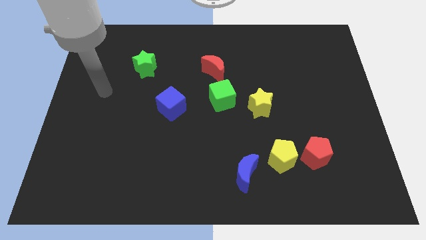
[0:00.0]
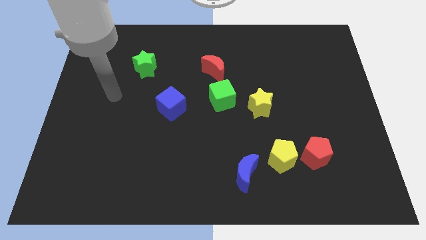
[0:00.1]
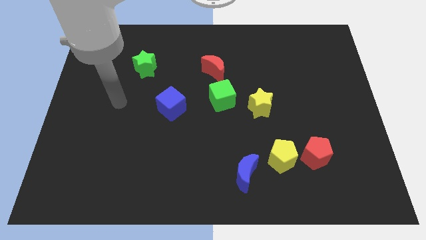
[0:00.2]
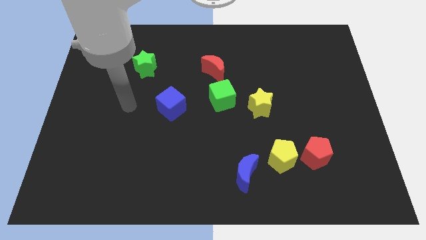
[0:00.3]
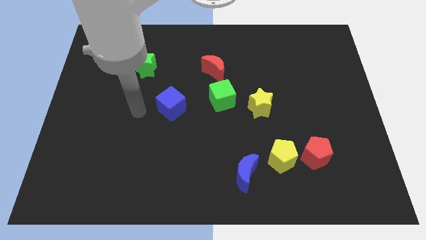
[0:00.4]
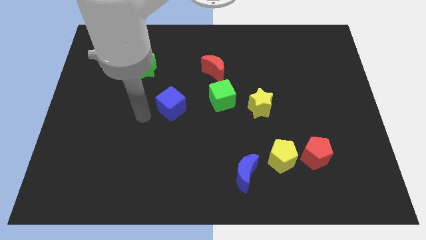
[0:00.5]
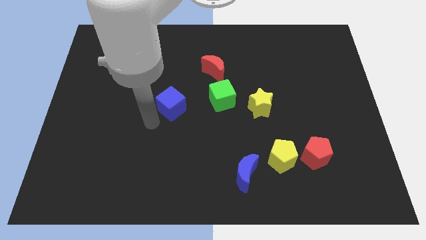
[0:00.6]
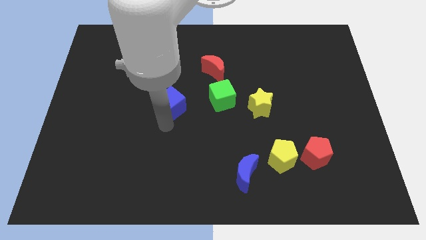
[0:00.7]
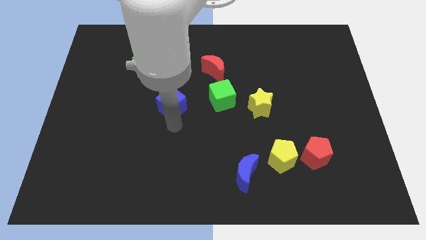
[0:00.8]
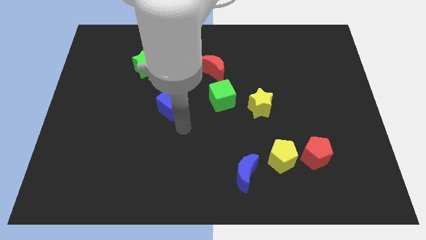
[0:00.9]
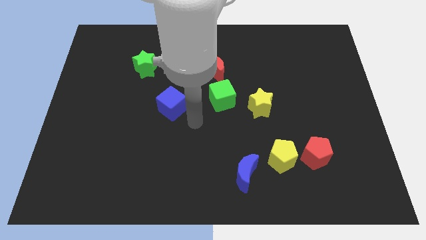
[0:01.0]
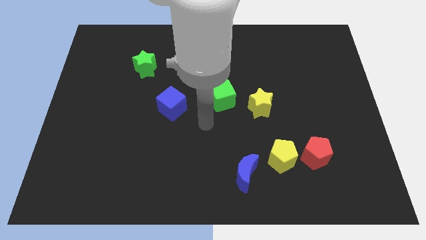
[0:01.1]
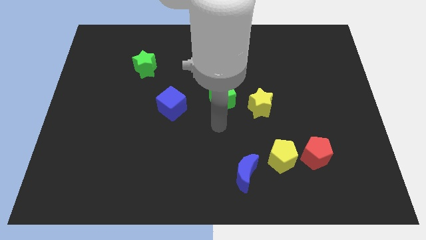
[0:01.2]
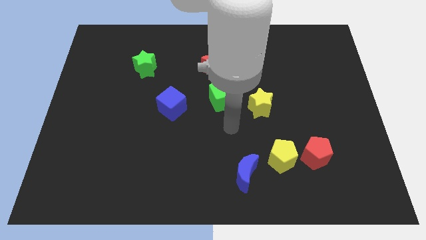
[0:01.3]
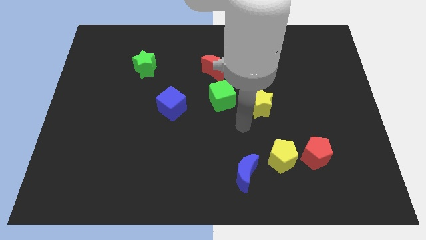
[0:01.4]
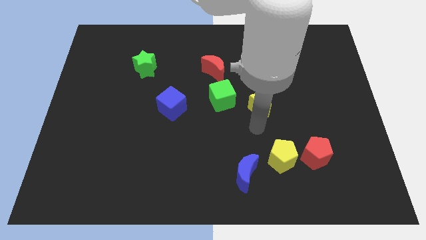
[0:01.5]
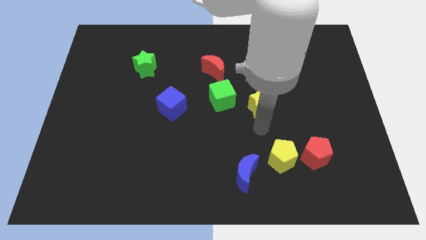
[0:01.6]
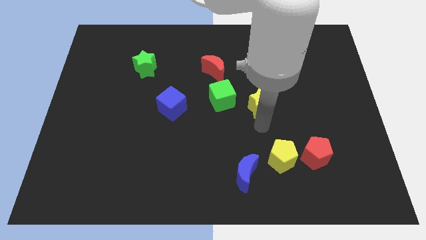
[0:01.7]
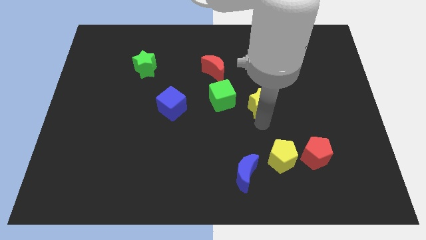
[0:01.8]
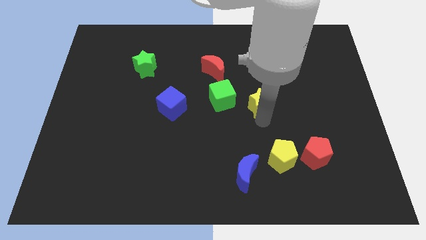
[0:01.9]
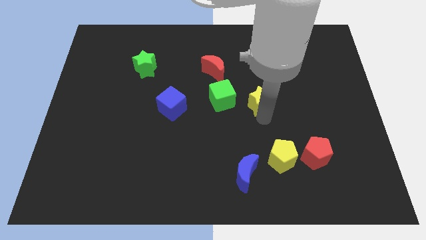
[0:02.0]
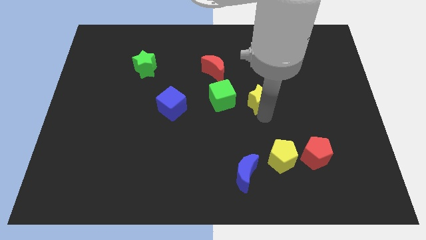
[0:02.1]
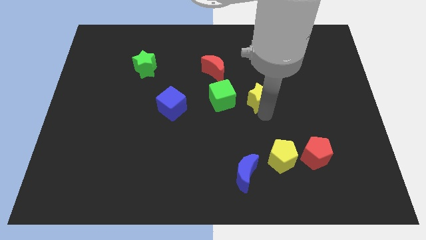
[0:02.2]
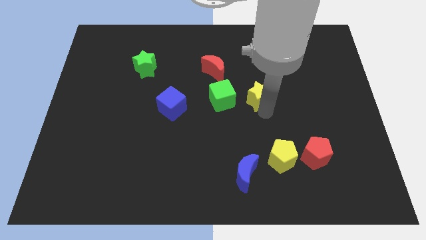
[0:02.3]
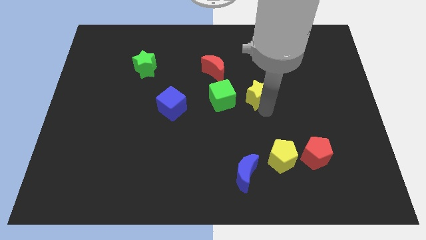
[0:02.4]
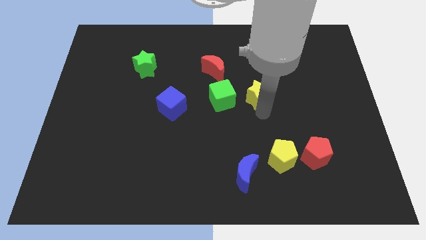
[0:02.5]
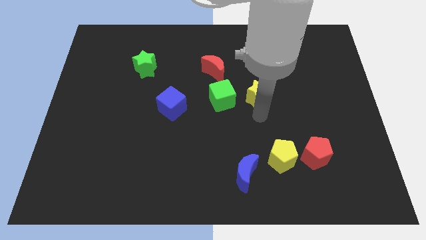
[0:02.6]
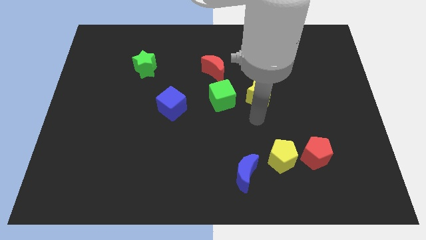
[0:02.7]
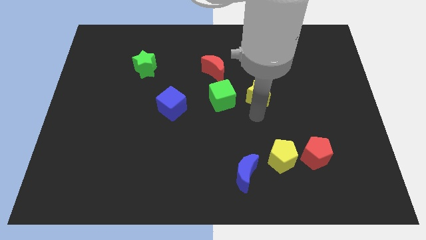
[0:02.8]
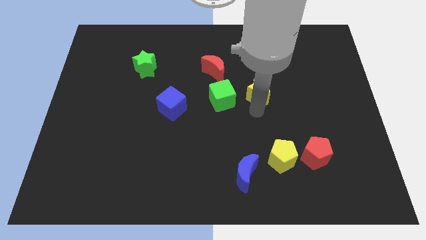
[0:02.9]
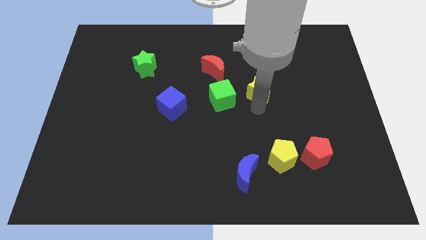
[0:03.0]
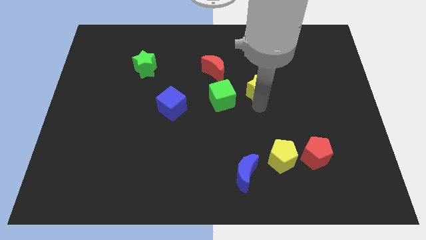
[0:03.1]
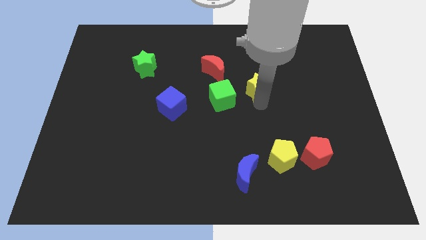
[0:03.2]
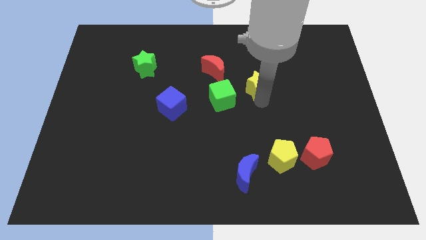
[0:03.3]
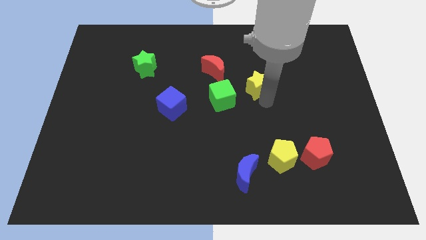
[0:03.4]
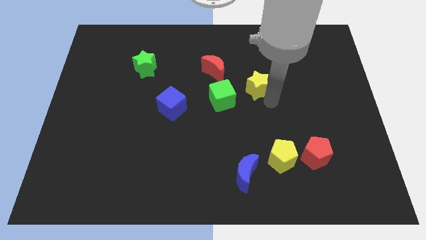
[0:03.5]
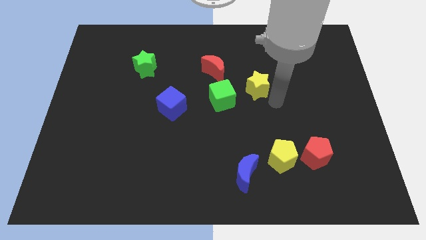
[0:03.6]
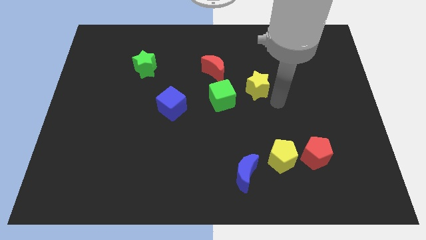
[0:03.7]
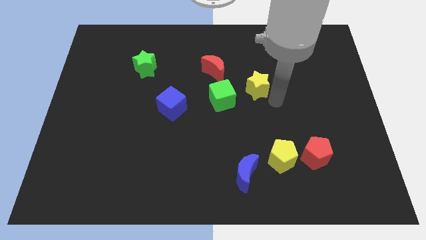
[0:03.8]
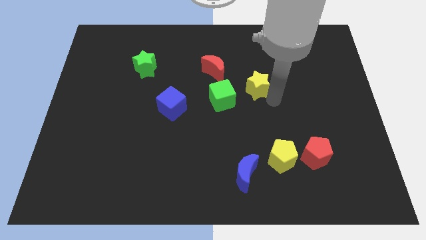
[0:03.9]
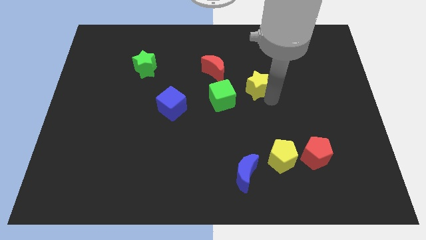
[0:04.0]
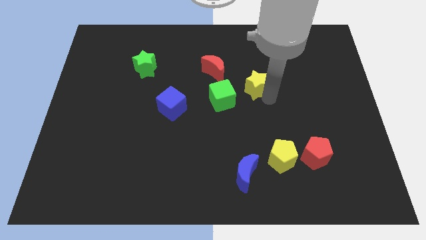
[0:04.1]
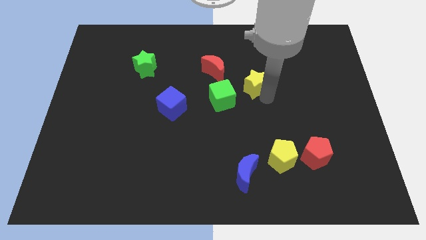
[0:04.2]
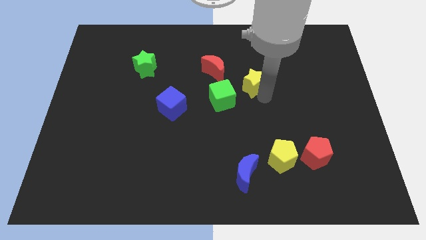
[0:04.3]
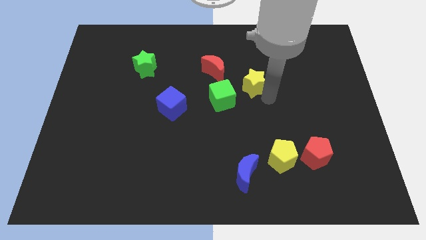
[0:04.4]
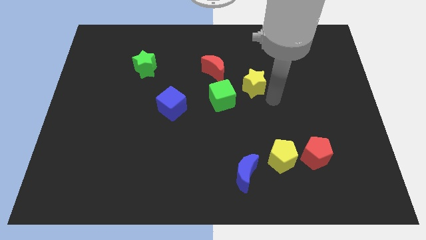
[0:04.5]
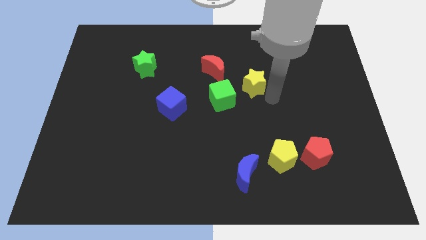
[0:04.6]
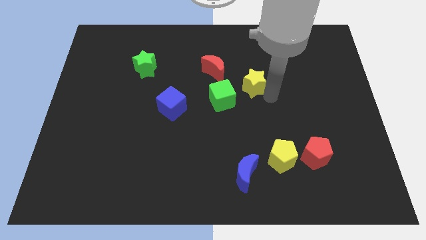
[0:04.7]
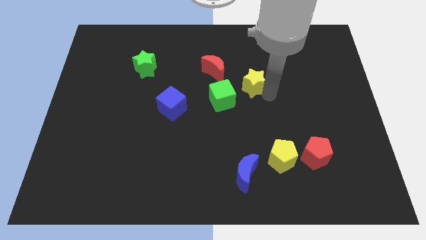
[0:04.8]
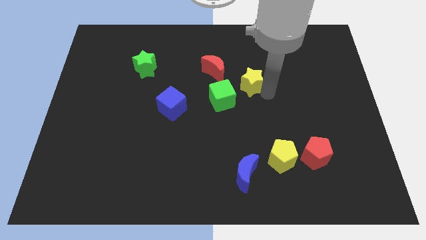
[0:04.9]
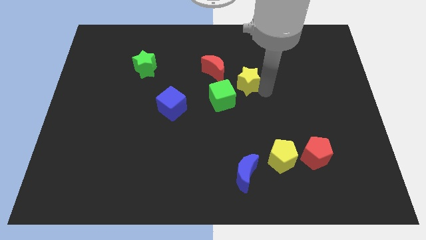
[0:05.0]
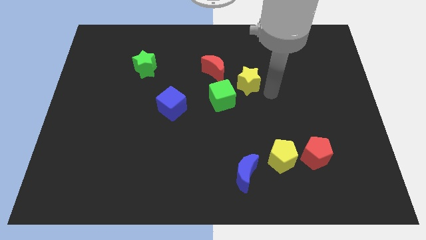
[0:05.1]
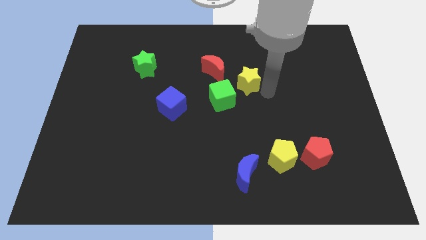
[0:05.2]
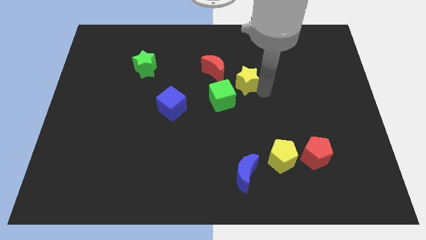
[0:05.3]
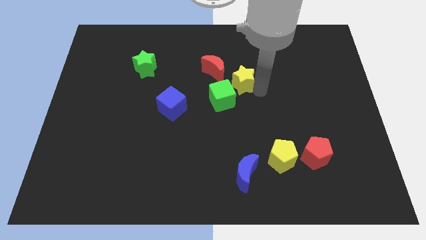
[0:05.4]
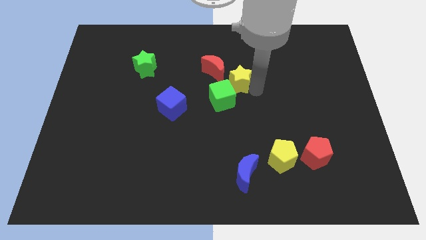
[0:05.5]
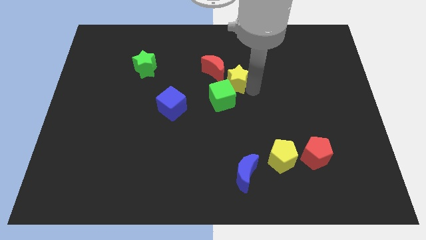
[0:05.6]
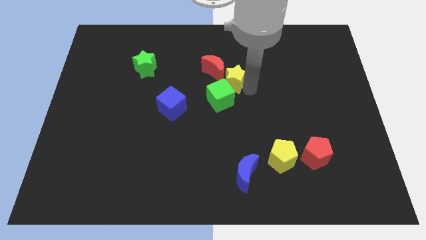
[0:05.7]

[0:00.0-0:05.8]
slide the yellow star to the red moon

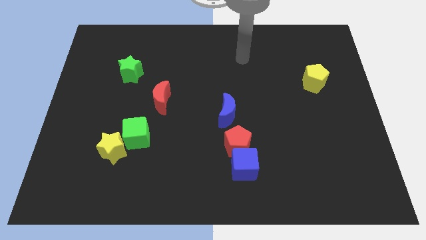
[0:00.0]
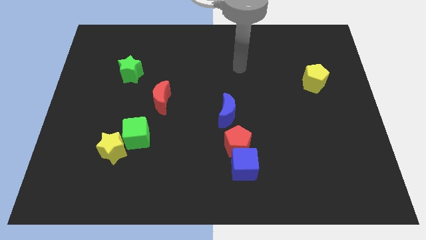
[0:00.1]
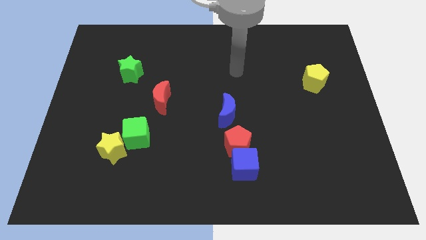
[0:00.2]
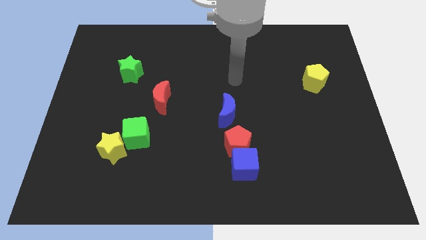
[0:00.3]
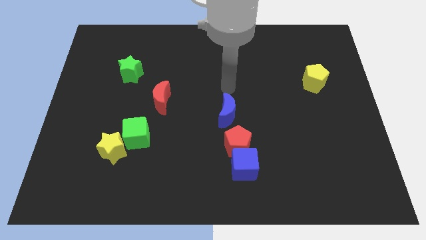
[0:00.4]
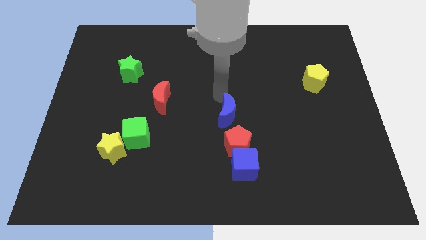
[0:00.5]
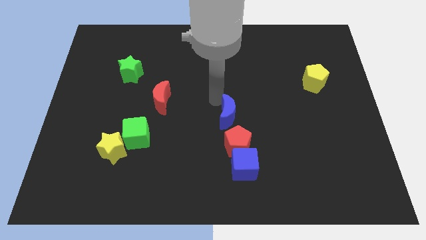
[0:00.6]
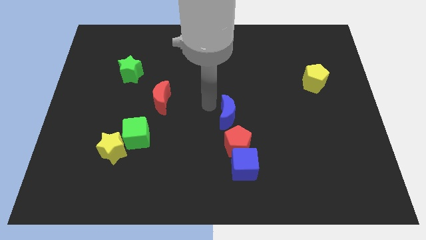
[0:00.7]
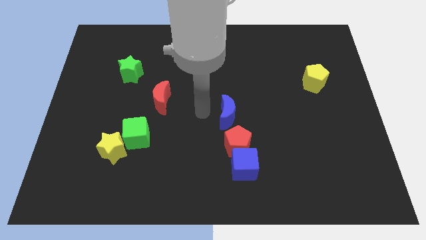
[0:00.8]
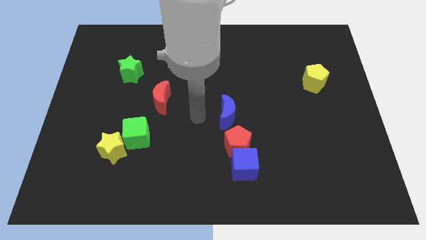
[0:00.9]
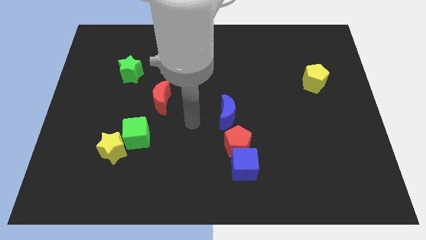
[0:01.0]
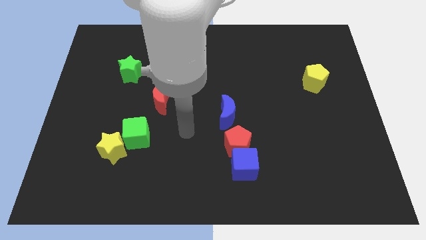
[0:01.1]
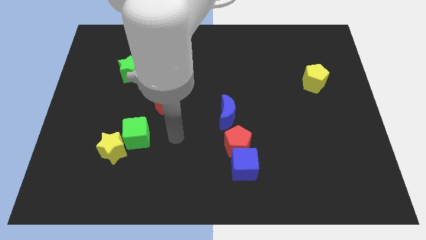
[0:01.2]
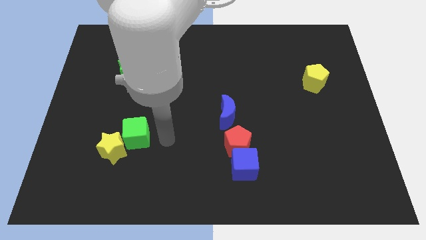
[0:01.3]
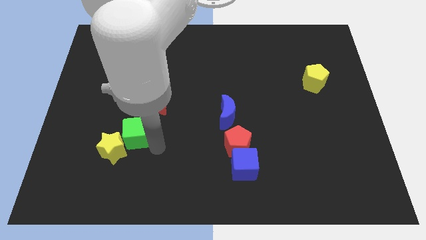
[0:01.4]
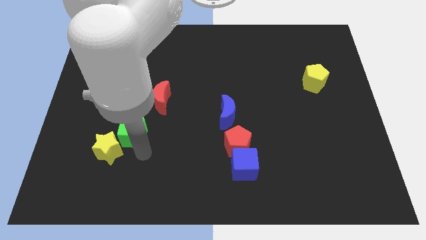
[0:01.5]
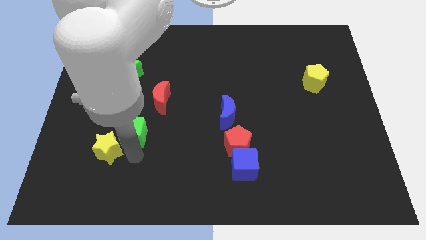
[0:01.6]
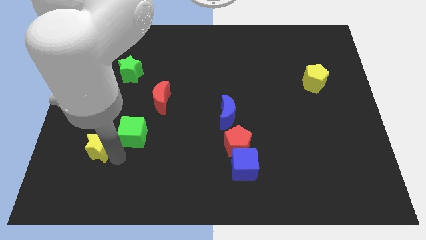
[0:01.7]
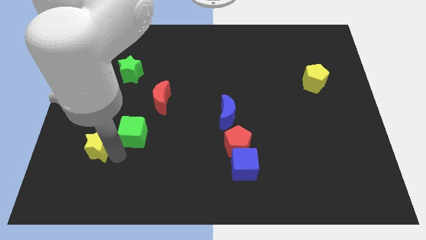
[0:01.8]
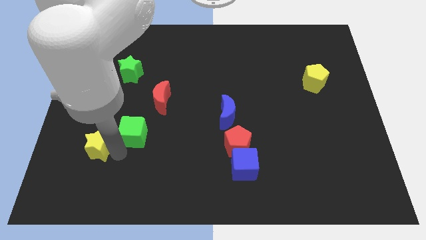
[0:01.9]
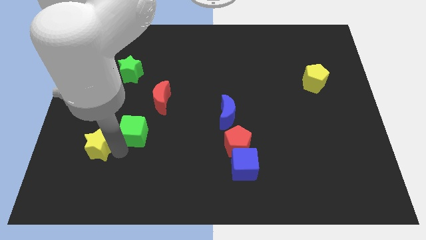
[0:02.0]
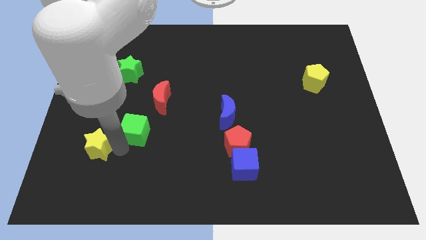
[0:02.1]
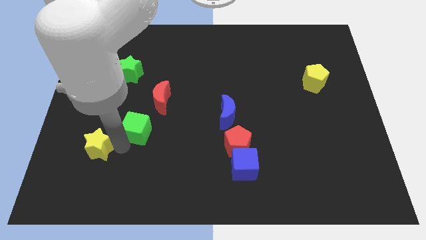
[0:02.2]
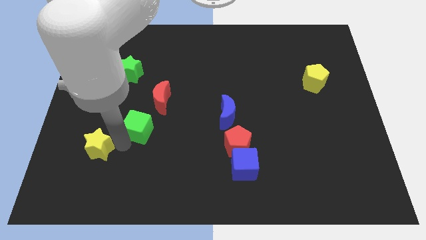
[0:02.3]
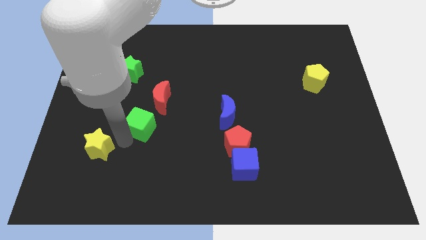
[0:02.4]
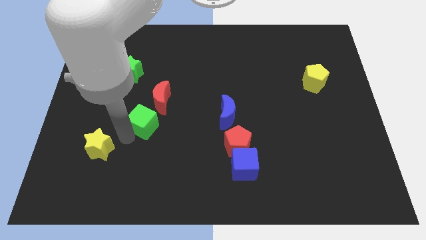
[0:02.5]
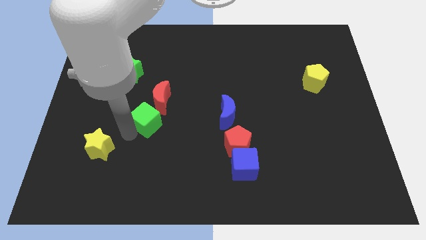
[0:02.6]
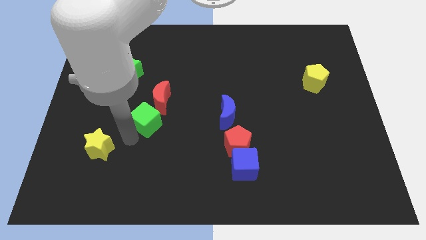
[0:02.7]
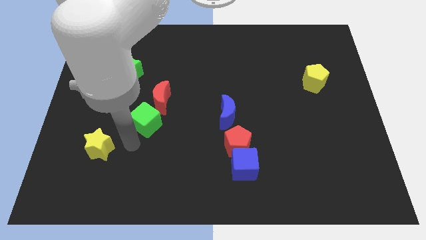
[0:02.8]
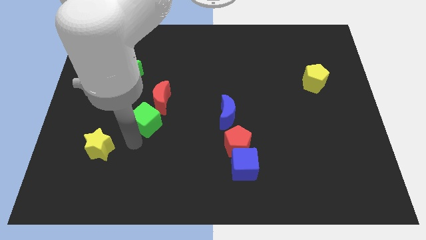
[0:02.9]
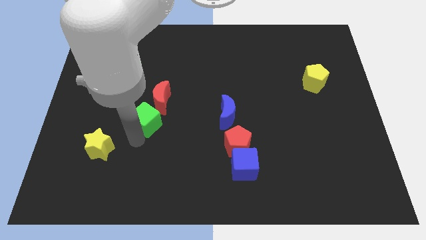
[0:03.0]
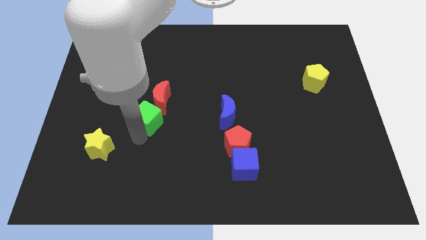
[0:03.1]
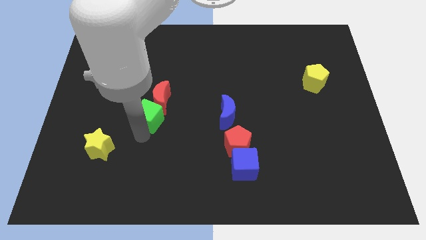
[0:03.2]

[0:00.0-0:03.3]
put the green cube towards the red moon
